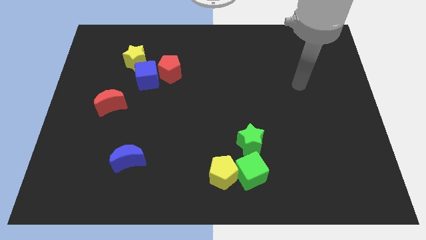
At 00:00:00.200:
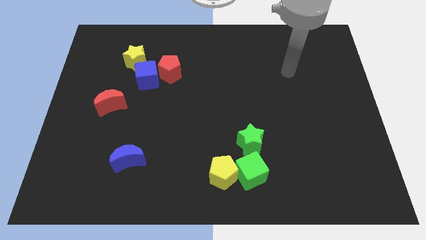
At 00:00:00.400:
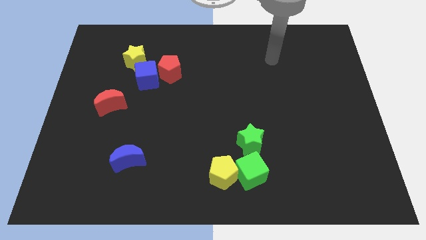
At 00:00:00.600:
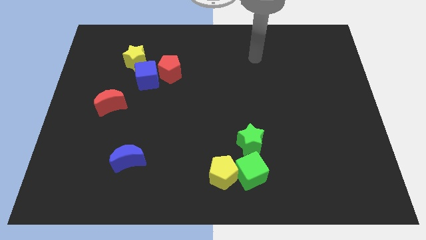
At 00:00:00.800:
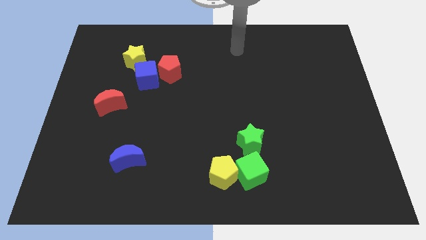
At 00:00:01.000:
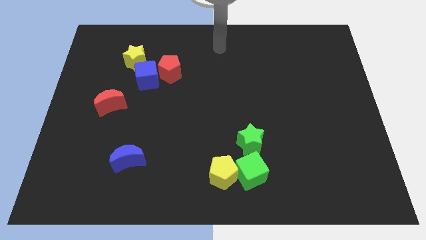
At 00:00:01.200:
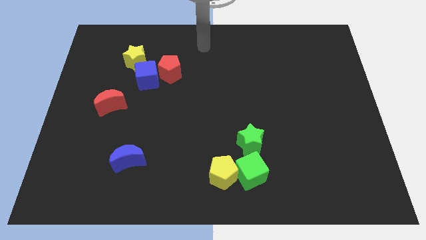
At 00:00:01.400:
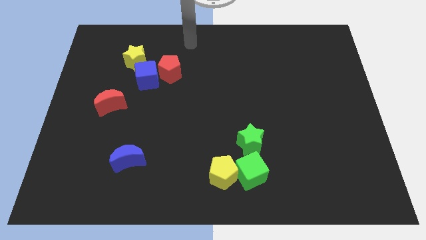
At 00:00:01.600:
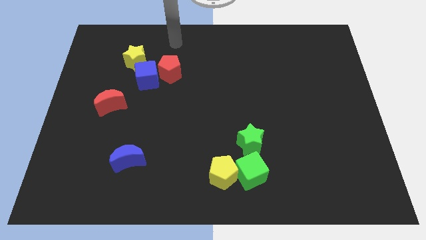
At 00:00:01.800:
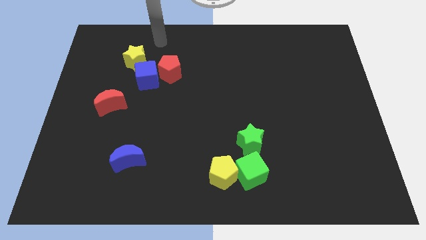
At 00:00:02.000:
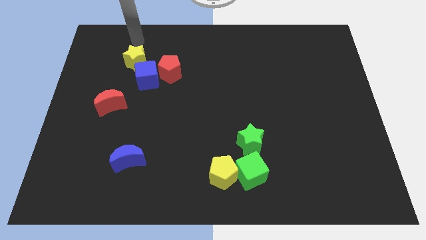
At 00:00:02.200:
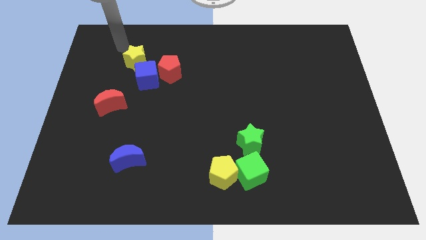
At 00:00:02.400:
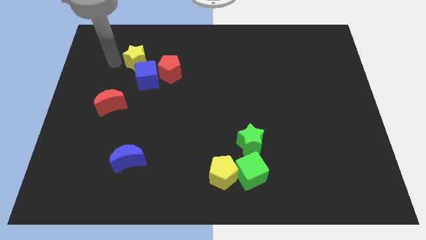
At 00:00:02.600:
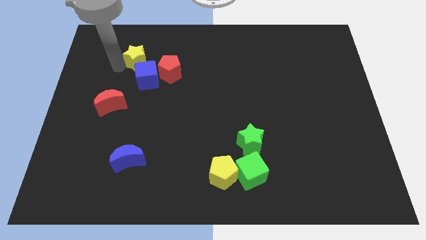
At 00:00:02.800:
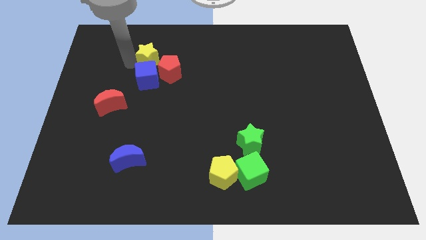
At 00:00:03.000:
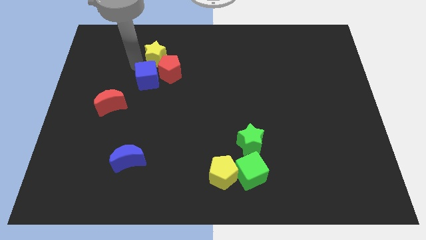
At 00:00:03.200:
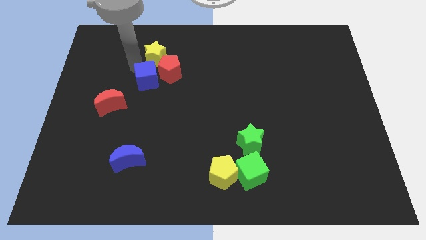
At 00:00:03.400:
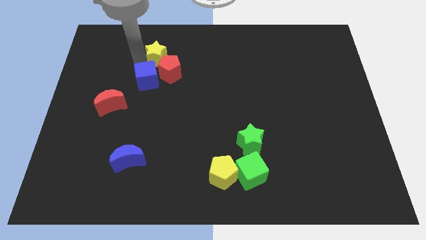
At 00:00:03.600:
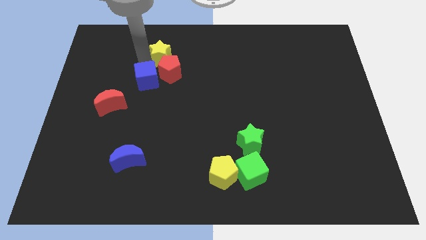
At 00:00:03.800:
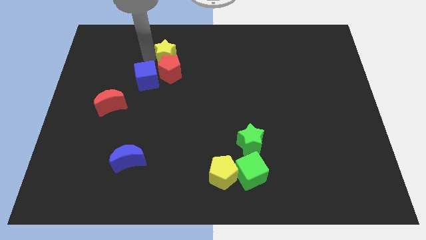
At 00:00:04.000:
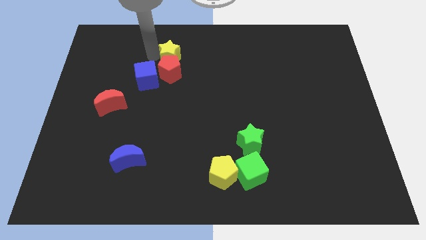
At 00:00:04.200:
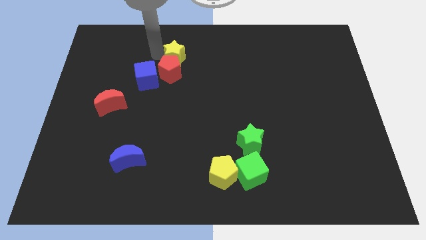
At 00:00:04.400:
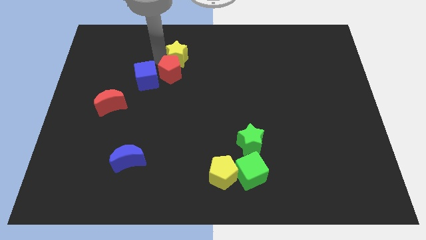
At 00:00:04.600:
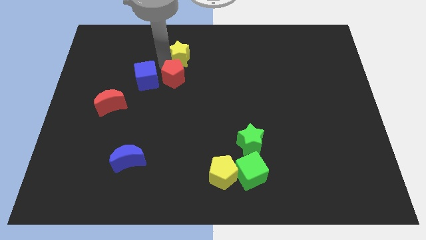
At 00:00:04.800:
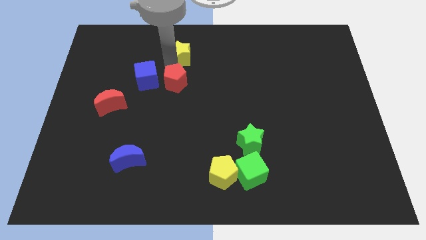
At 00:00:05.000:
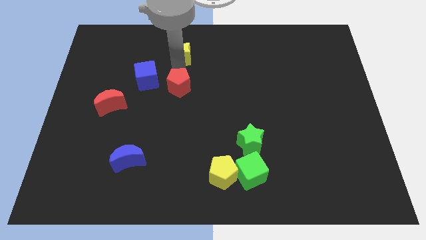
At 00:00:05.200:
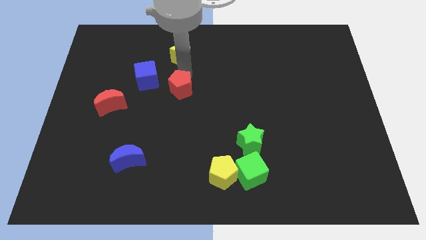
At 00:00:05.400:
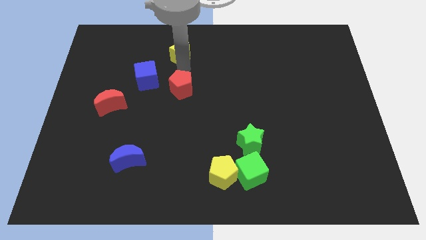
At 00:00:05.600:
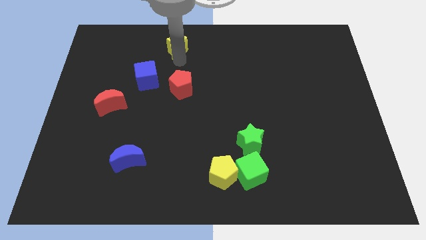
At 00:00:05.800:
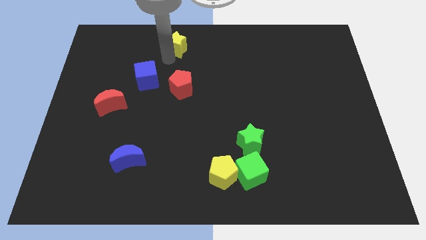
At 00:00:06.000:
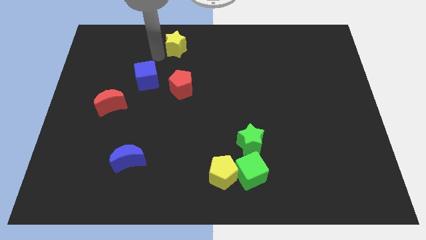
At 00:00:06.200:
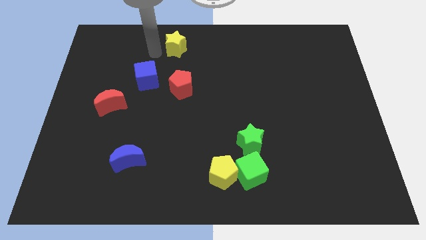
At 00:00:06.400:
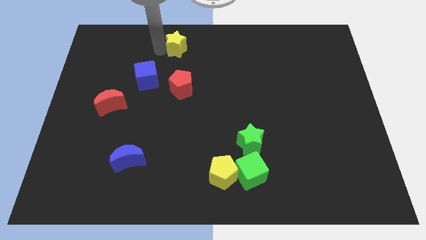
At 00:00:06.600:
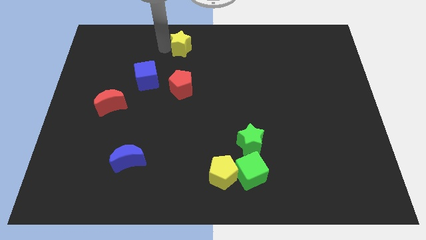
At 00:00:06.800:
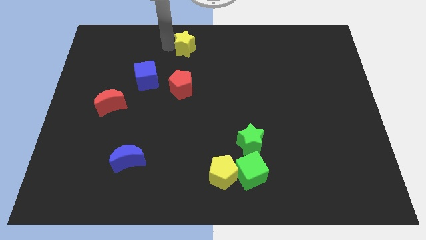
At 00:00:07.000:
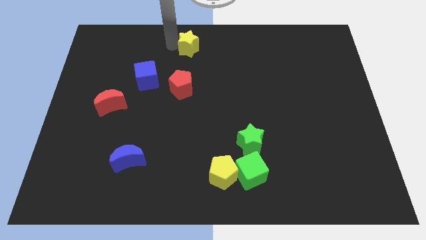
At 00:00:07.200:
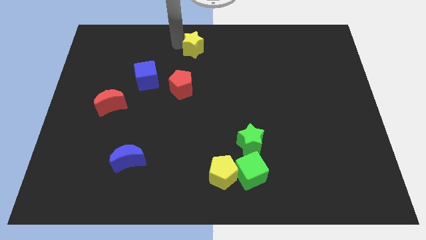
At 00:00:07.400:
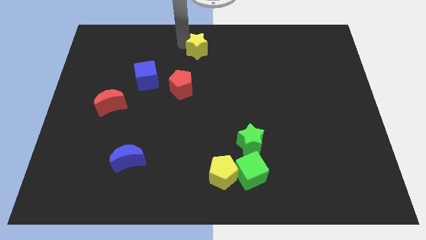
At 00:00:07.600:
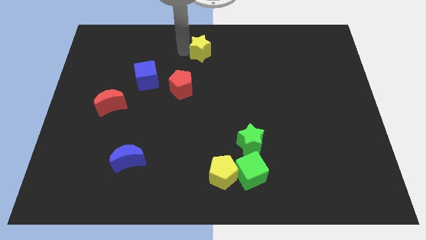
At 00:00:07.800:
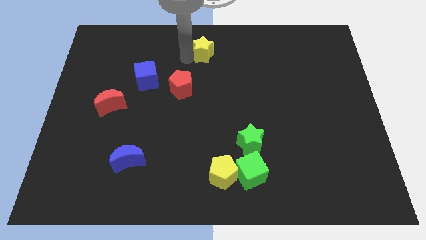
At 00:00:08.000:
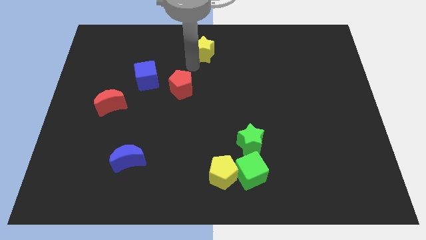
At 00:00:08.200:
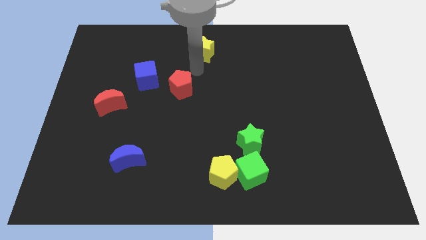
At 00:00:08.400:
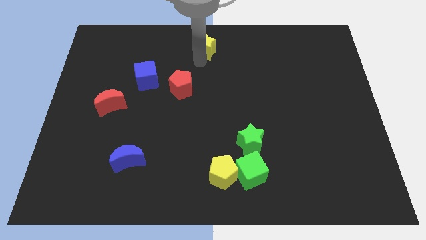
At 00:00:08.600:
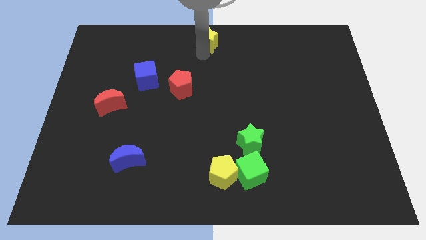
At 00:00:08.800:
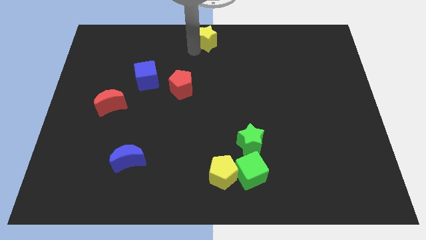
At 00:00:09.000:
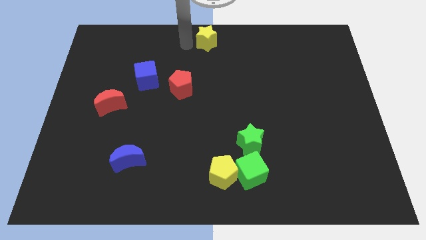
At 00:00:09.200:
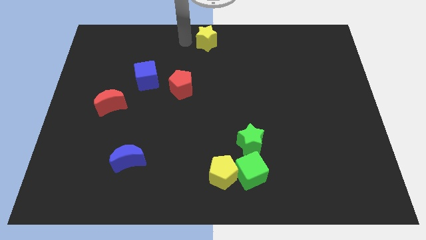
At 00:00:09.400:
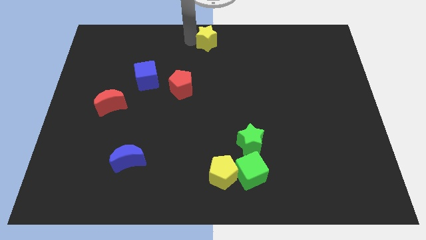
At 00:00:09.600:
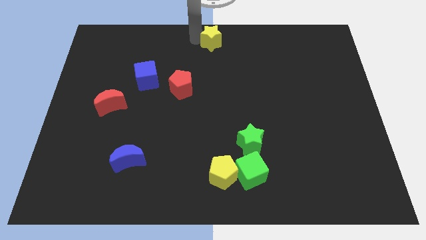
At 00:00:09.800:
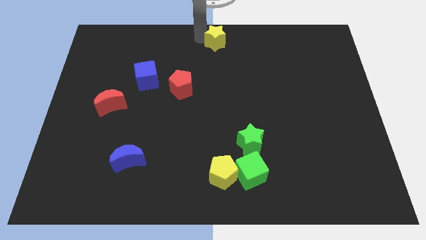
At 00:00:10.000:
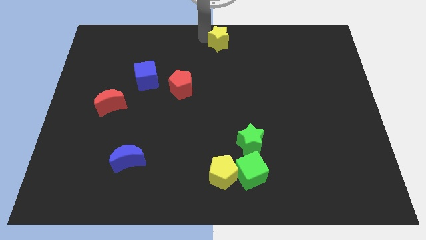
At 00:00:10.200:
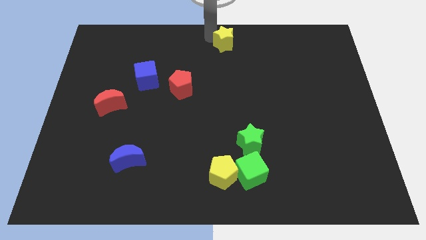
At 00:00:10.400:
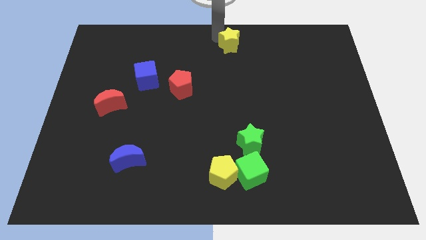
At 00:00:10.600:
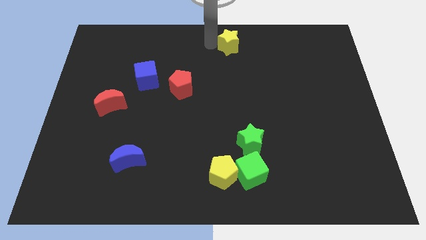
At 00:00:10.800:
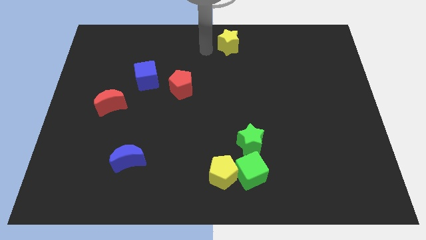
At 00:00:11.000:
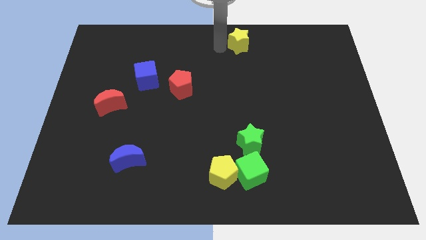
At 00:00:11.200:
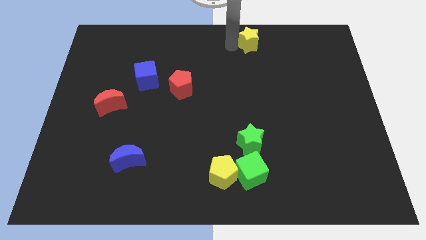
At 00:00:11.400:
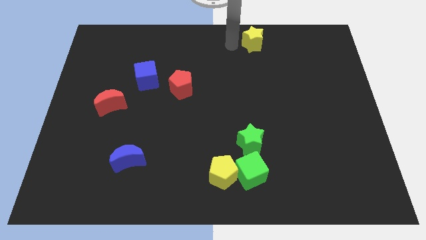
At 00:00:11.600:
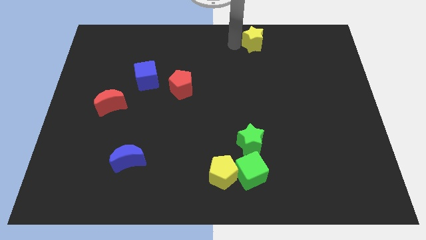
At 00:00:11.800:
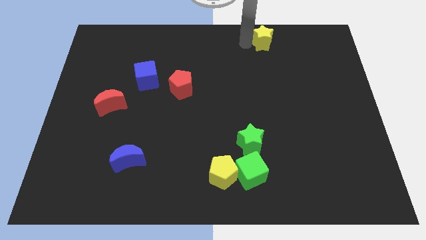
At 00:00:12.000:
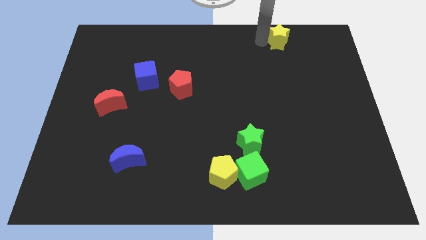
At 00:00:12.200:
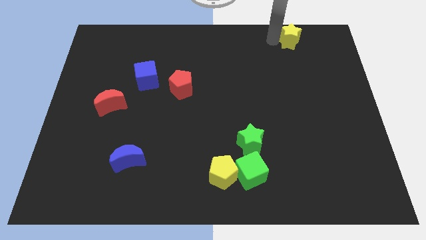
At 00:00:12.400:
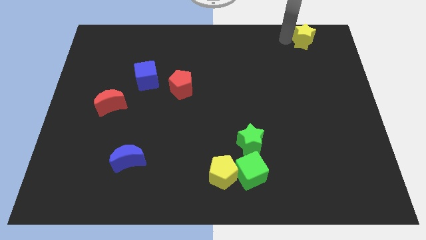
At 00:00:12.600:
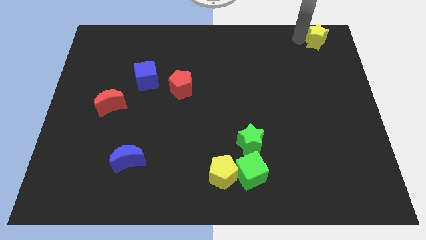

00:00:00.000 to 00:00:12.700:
put the yellow star to the top right

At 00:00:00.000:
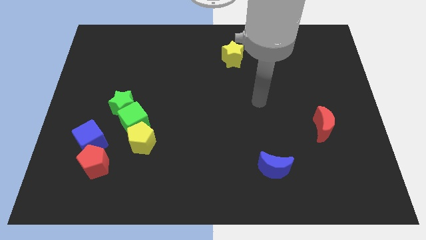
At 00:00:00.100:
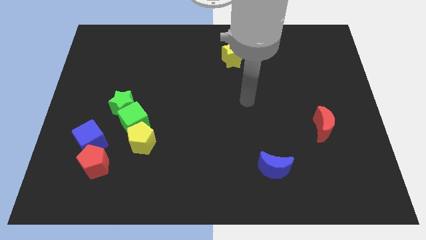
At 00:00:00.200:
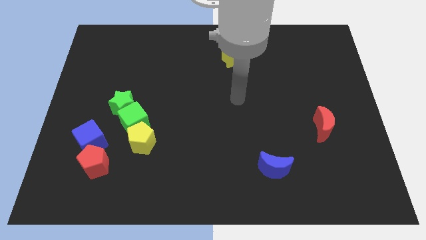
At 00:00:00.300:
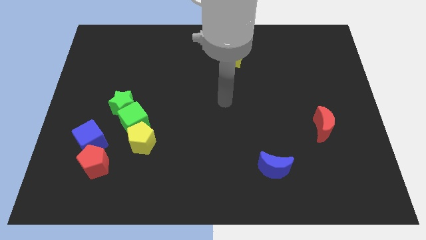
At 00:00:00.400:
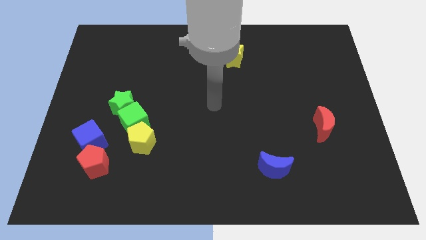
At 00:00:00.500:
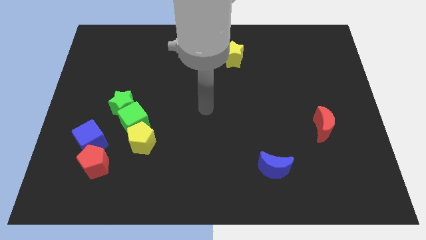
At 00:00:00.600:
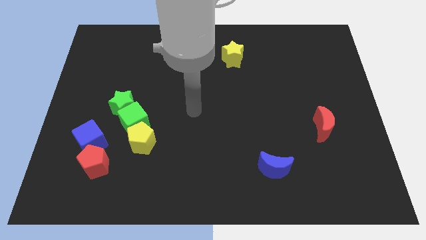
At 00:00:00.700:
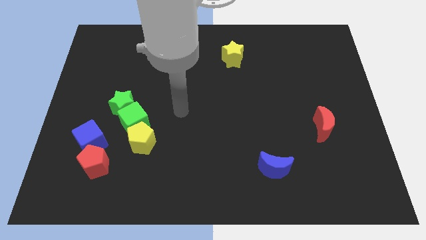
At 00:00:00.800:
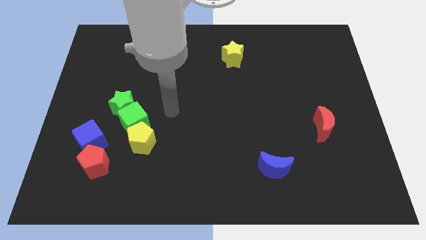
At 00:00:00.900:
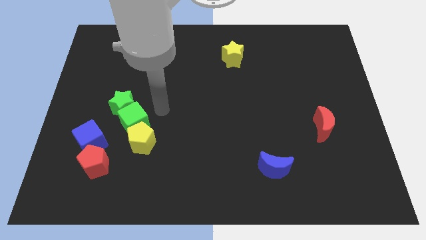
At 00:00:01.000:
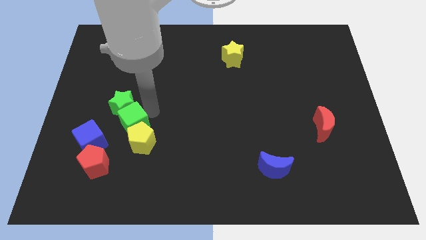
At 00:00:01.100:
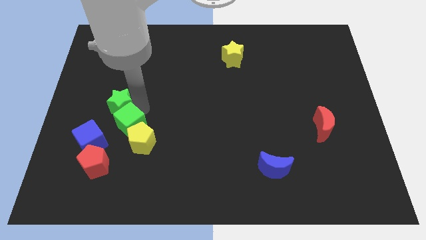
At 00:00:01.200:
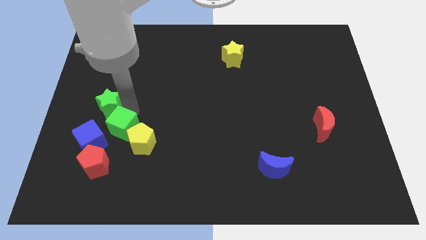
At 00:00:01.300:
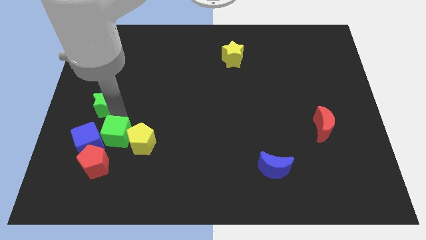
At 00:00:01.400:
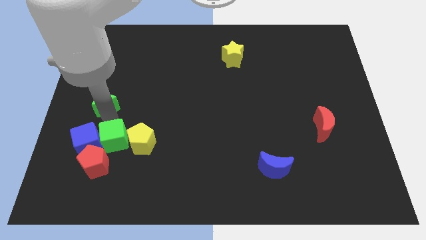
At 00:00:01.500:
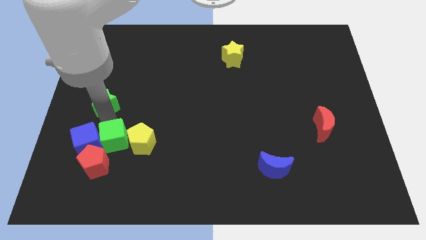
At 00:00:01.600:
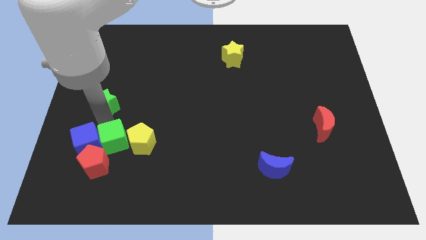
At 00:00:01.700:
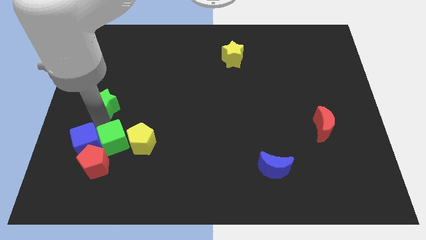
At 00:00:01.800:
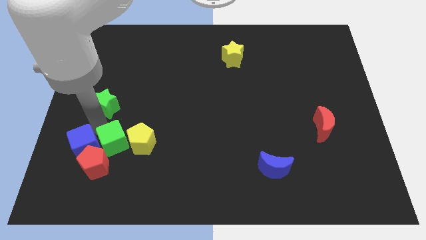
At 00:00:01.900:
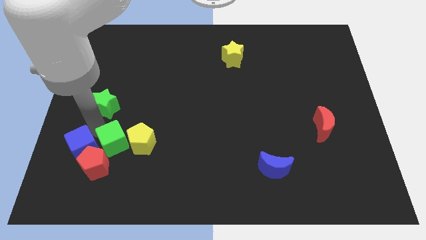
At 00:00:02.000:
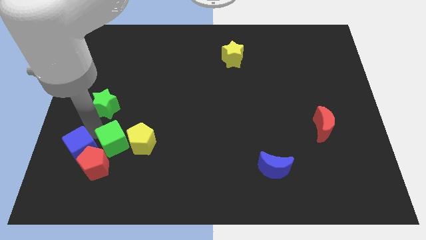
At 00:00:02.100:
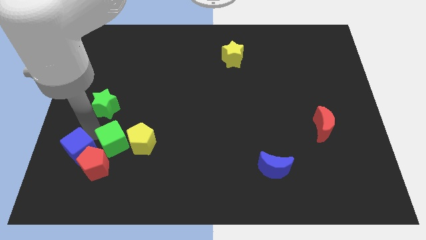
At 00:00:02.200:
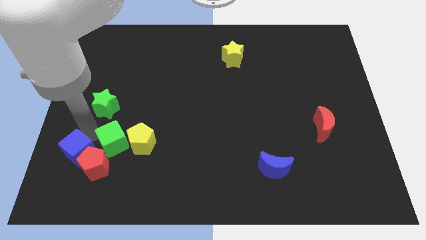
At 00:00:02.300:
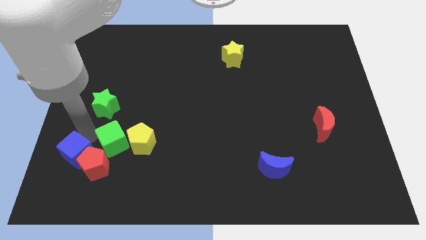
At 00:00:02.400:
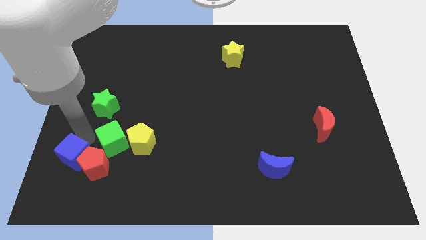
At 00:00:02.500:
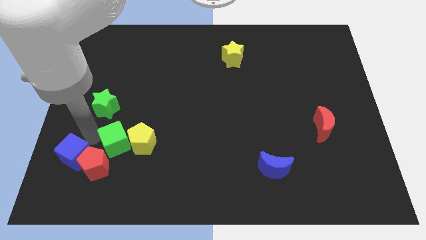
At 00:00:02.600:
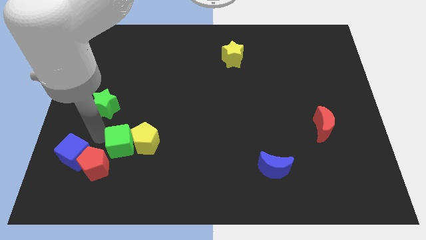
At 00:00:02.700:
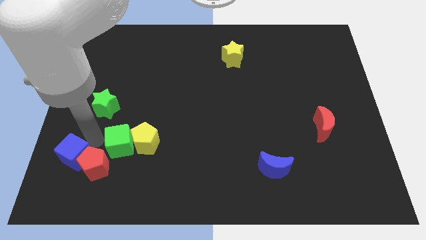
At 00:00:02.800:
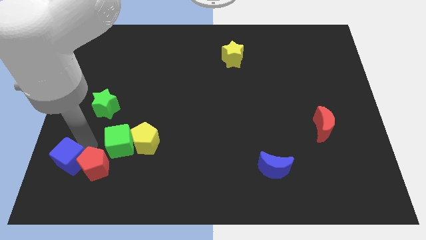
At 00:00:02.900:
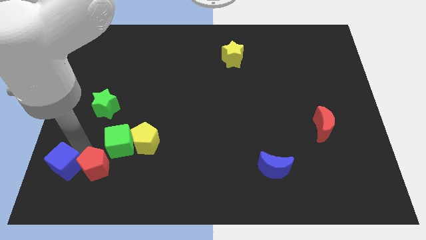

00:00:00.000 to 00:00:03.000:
put the blue cube to the bottom left
